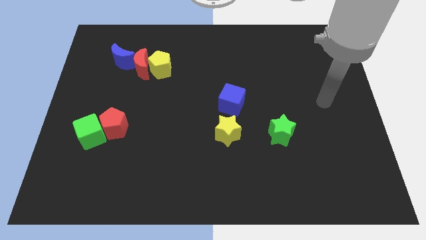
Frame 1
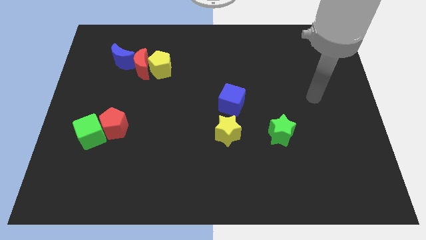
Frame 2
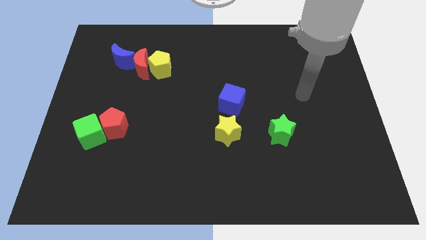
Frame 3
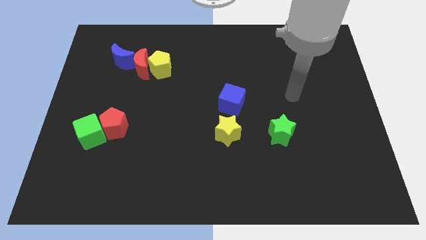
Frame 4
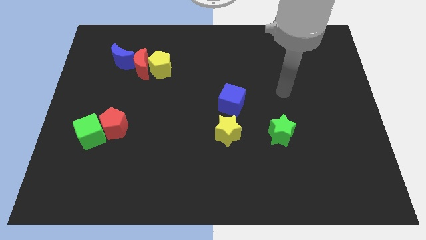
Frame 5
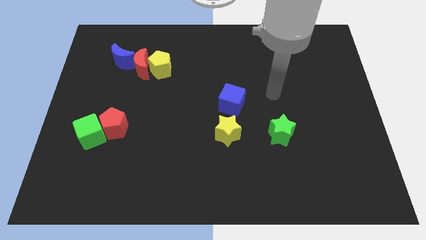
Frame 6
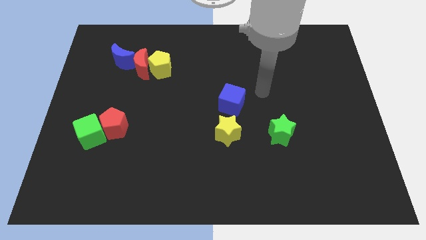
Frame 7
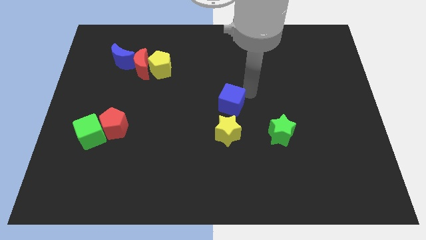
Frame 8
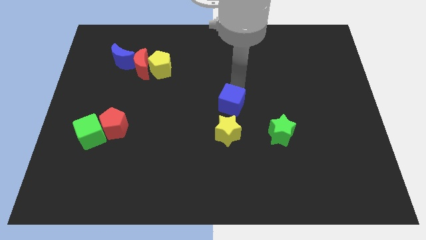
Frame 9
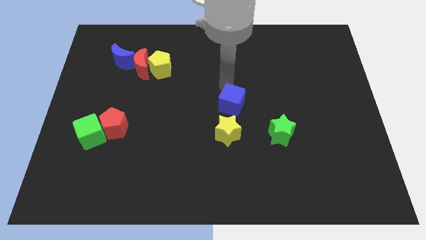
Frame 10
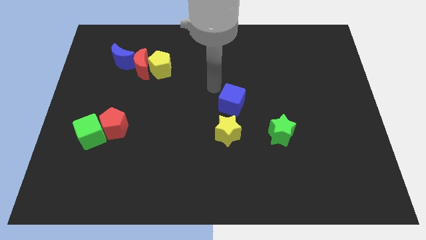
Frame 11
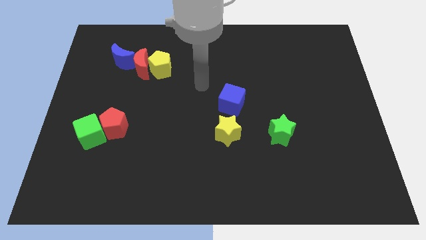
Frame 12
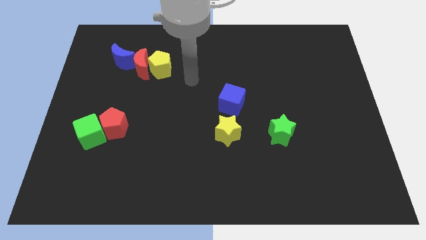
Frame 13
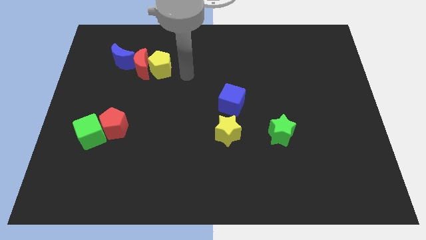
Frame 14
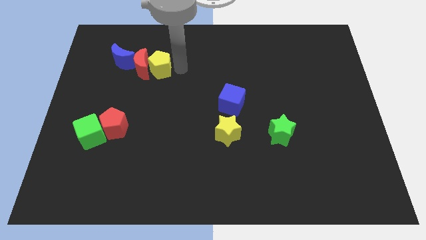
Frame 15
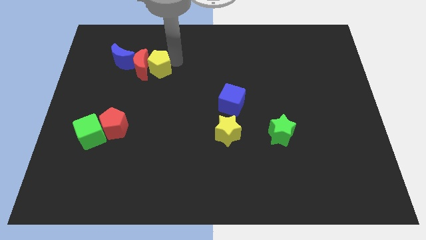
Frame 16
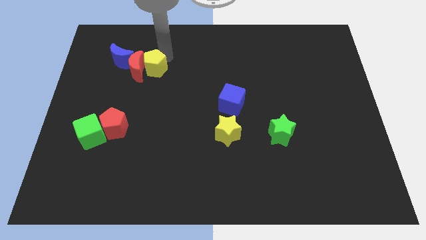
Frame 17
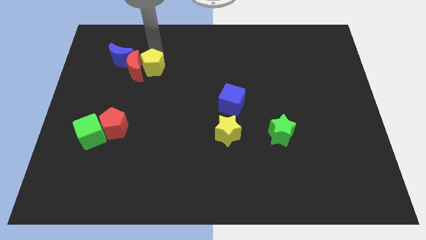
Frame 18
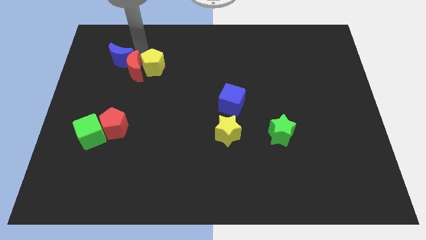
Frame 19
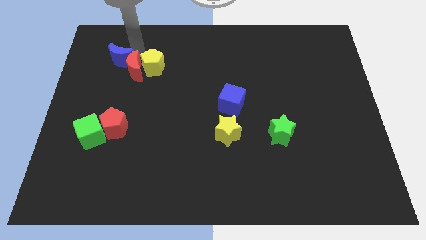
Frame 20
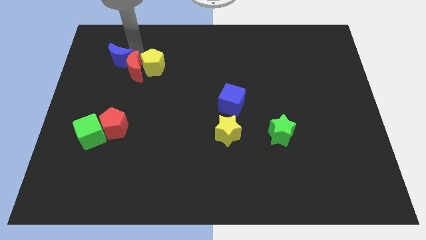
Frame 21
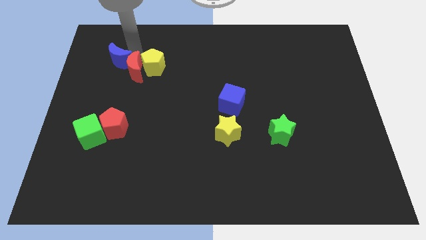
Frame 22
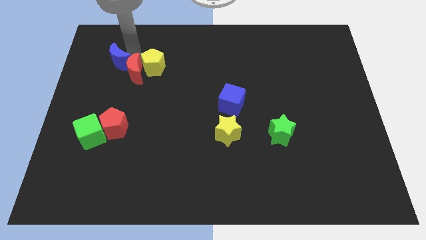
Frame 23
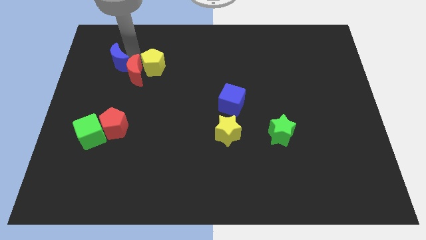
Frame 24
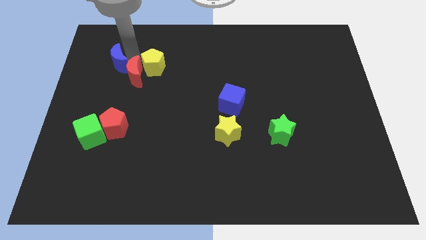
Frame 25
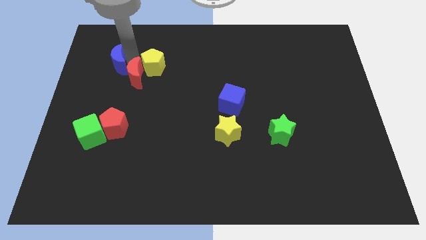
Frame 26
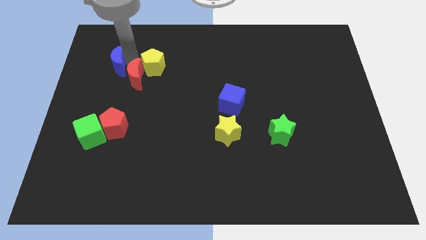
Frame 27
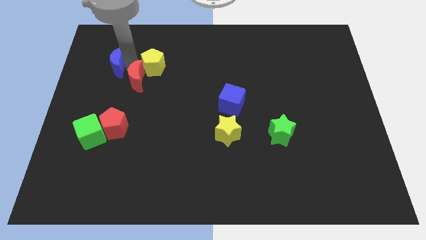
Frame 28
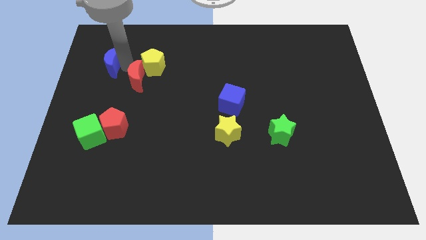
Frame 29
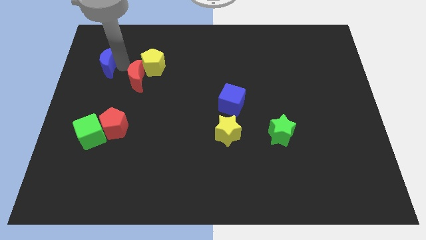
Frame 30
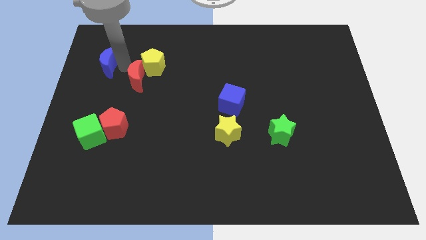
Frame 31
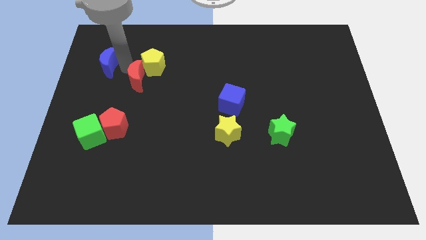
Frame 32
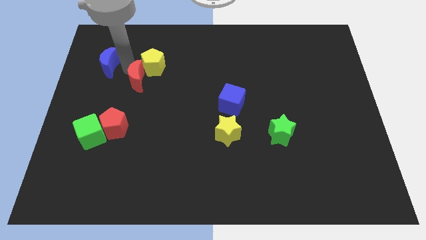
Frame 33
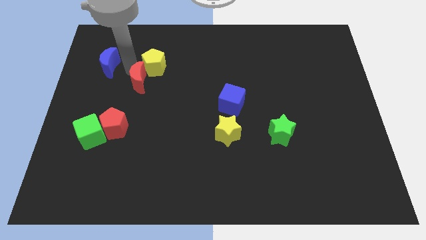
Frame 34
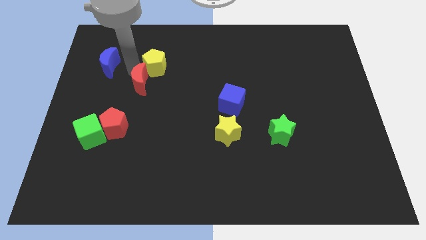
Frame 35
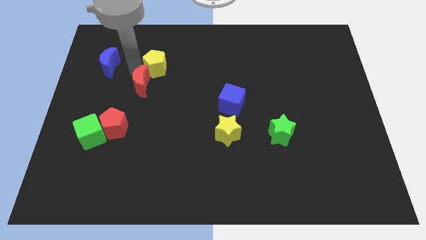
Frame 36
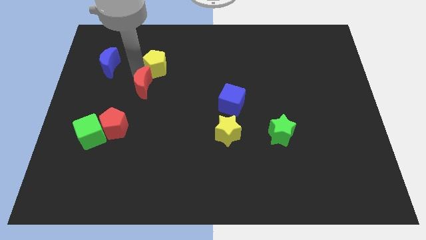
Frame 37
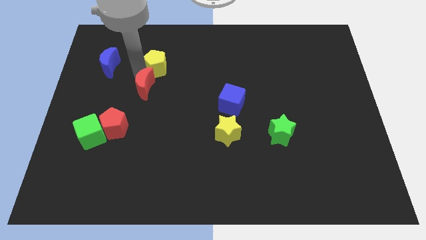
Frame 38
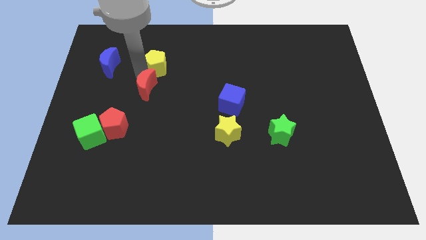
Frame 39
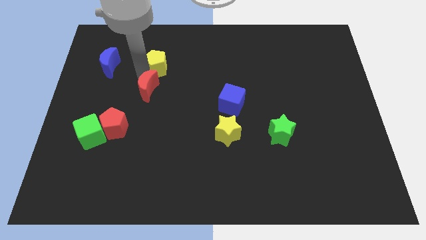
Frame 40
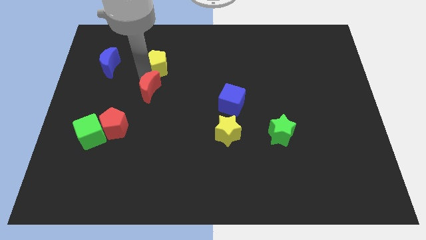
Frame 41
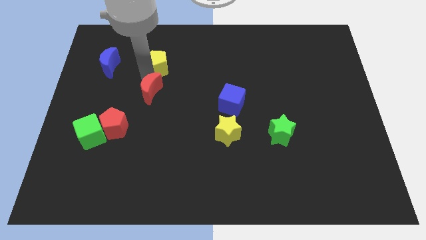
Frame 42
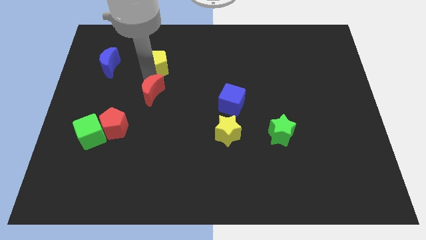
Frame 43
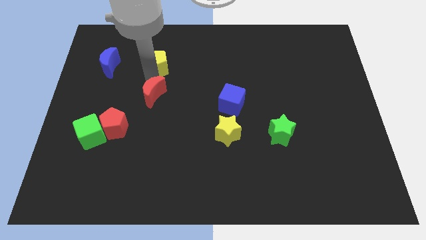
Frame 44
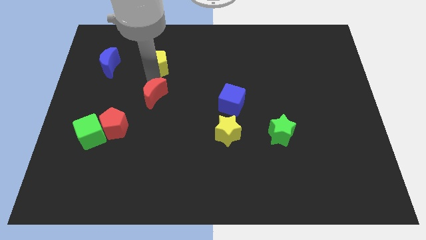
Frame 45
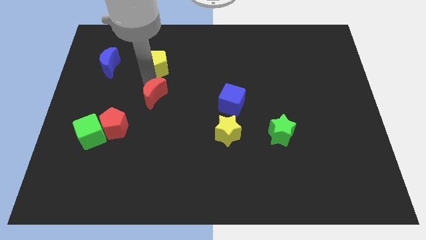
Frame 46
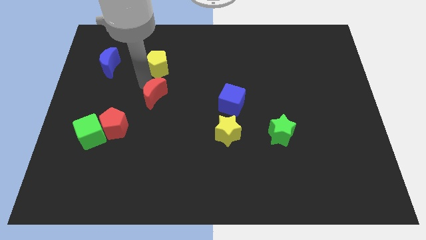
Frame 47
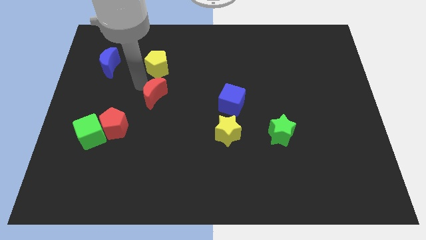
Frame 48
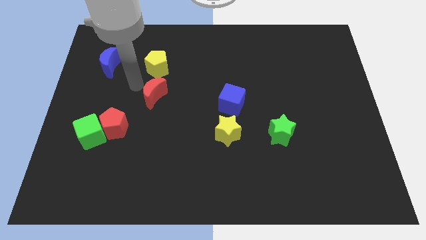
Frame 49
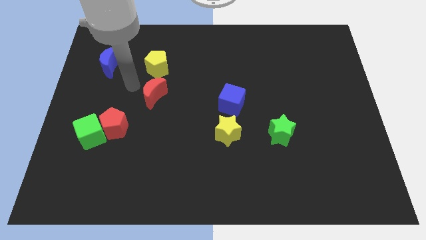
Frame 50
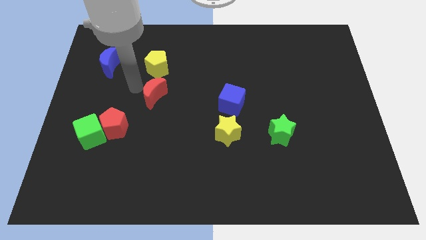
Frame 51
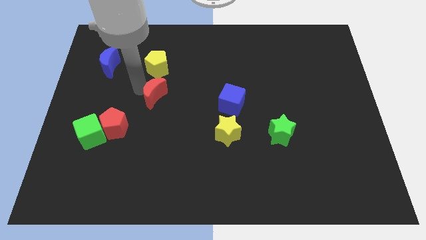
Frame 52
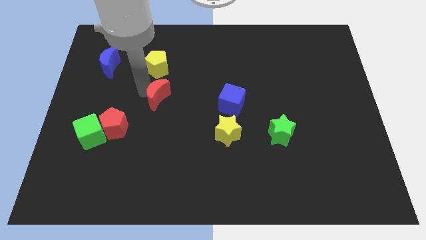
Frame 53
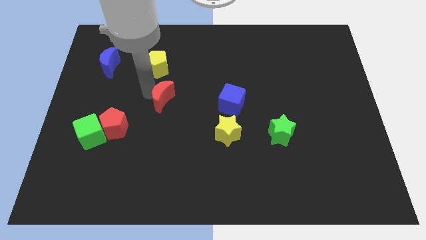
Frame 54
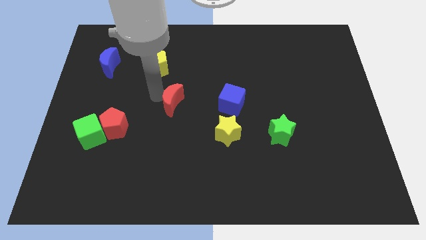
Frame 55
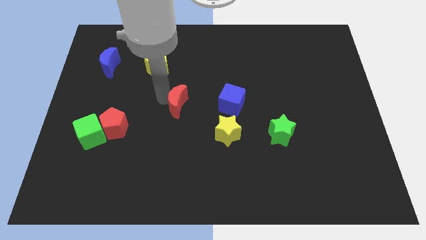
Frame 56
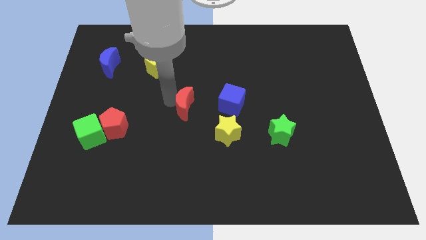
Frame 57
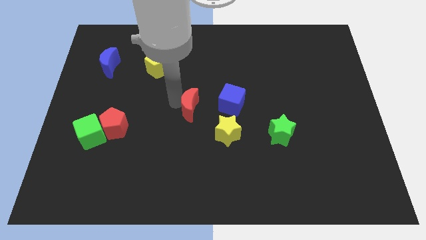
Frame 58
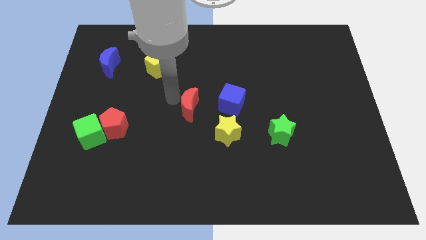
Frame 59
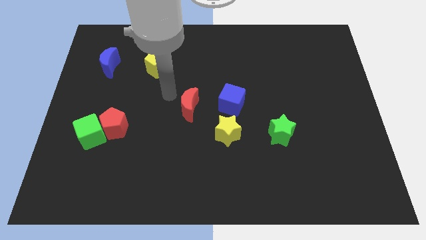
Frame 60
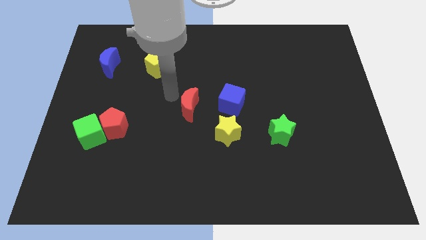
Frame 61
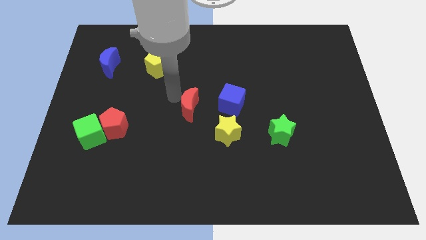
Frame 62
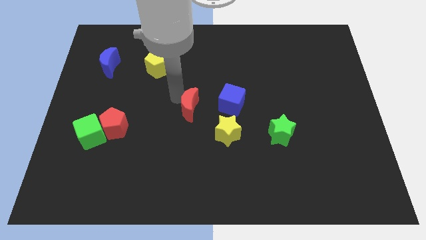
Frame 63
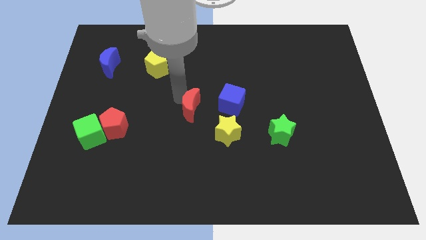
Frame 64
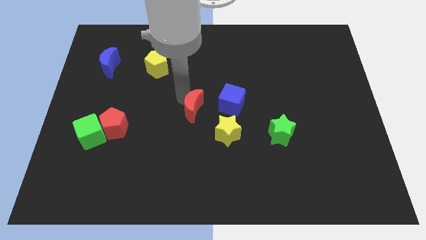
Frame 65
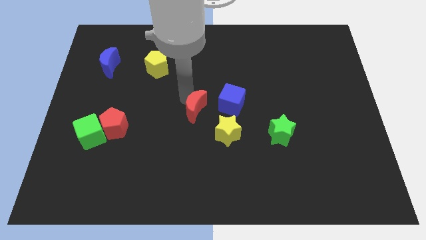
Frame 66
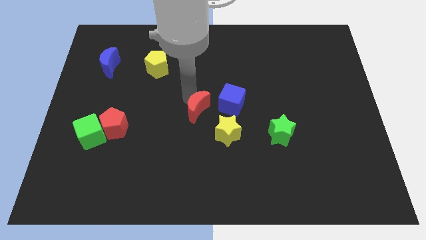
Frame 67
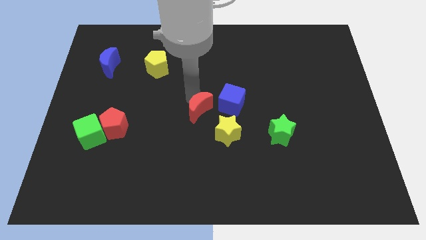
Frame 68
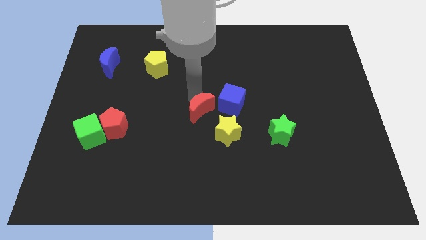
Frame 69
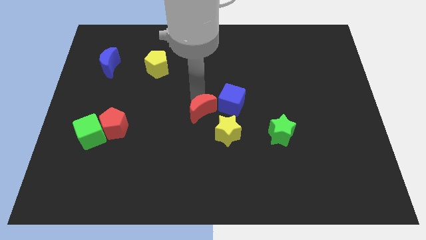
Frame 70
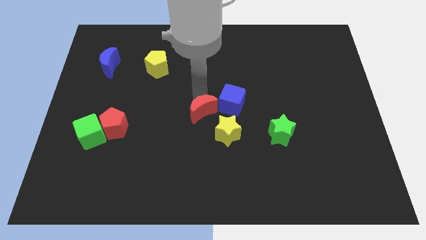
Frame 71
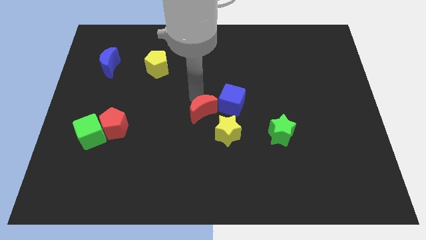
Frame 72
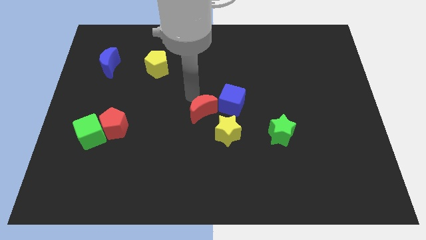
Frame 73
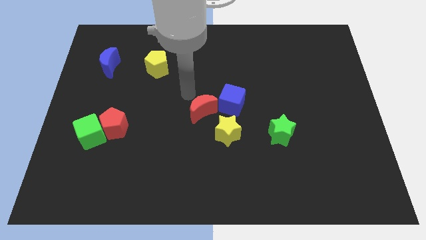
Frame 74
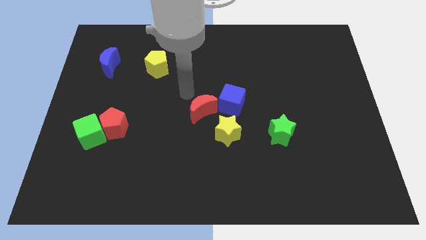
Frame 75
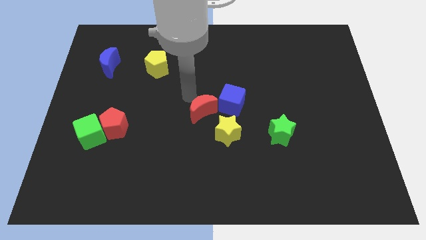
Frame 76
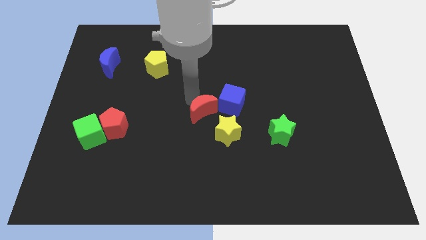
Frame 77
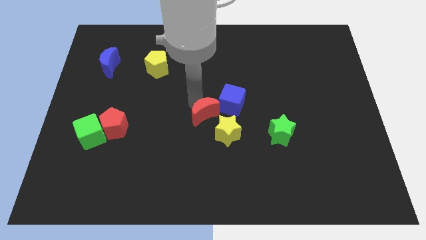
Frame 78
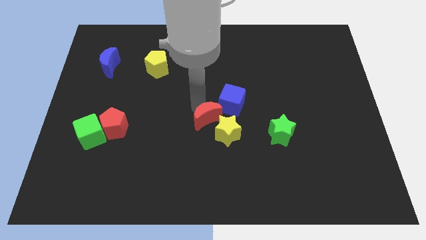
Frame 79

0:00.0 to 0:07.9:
slide the red moon close to the yellow star
